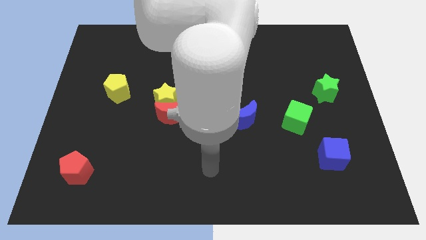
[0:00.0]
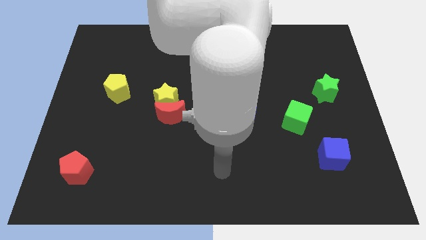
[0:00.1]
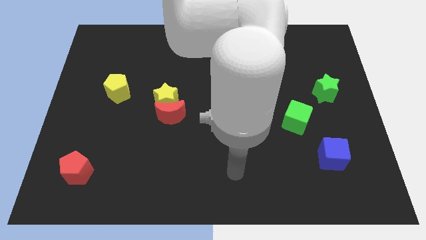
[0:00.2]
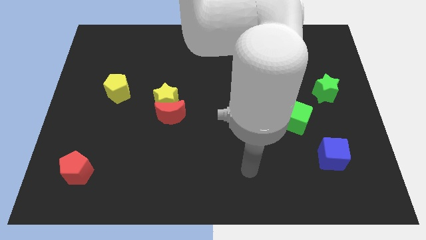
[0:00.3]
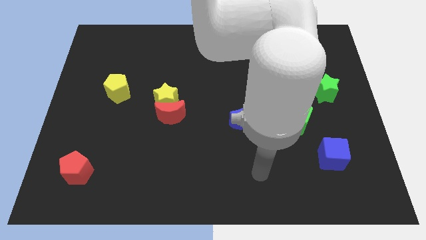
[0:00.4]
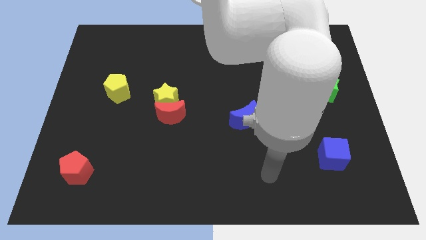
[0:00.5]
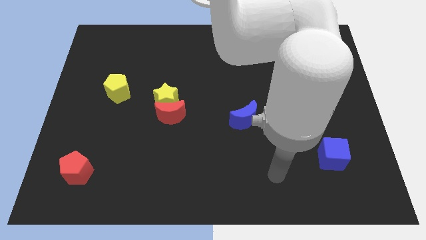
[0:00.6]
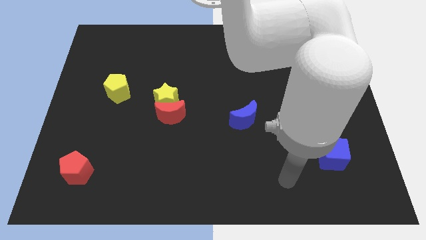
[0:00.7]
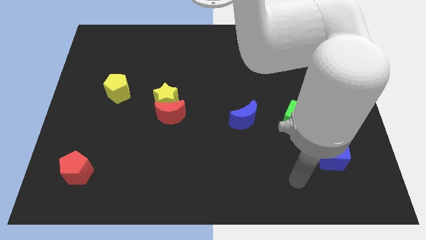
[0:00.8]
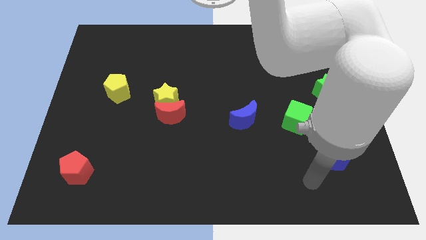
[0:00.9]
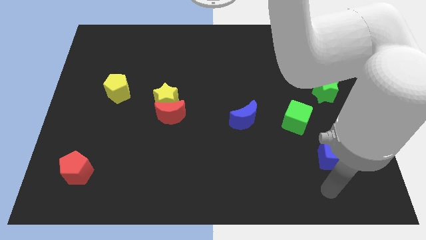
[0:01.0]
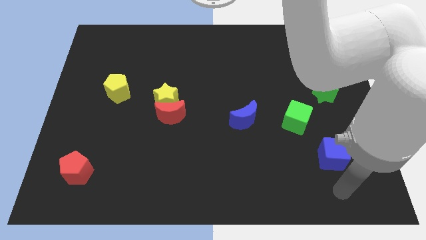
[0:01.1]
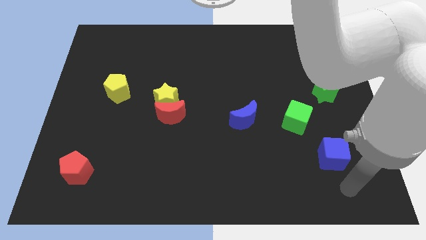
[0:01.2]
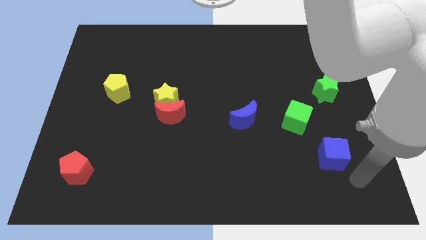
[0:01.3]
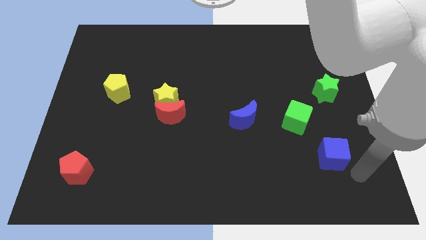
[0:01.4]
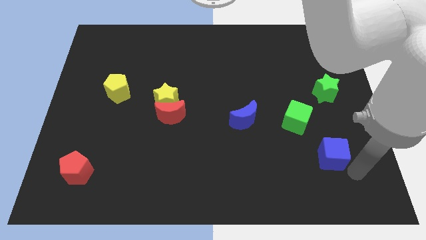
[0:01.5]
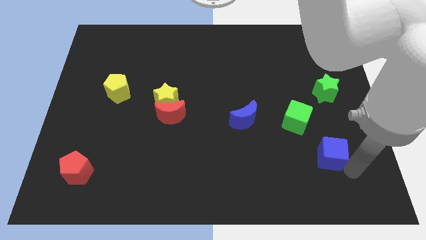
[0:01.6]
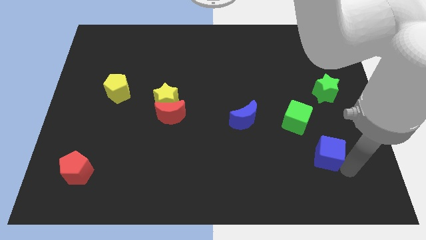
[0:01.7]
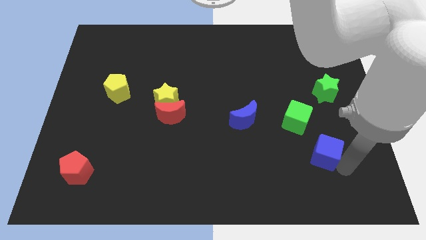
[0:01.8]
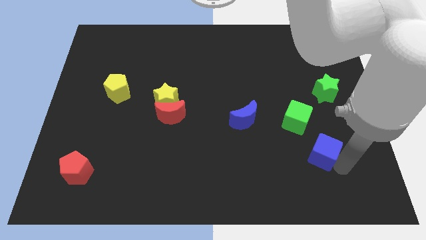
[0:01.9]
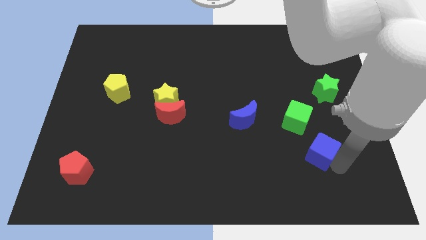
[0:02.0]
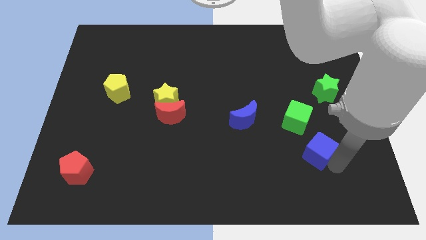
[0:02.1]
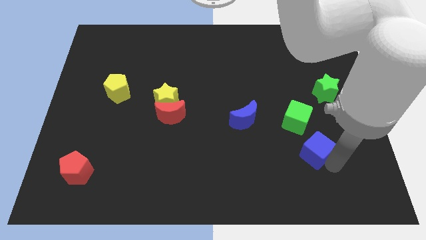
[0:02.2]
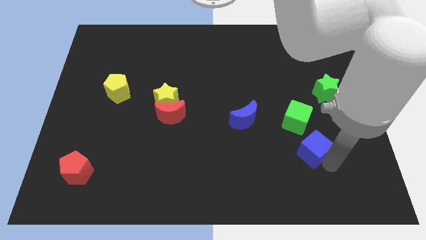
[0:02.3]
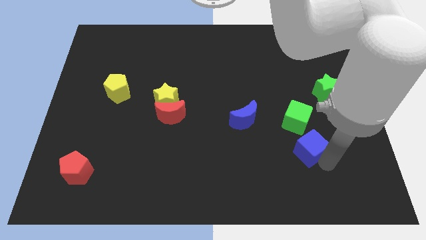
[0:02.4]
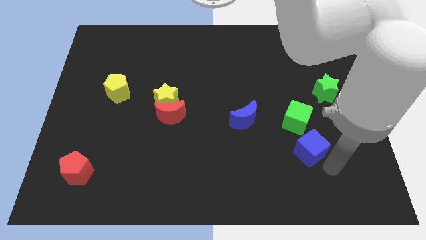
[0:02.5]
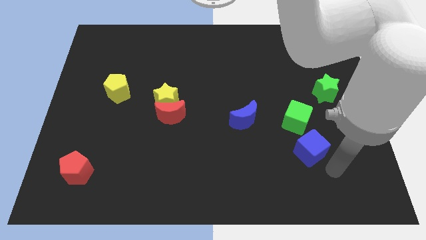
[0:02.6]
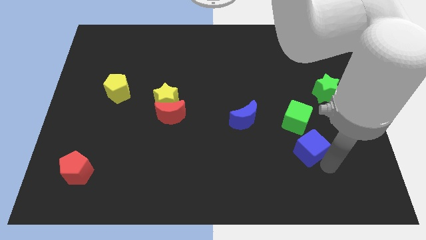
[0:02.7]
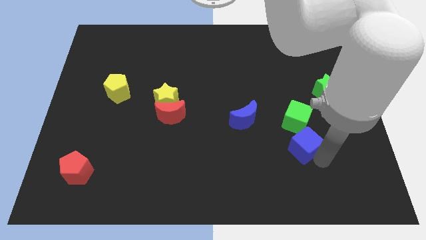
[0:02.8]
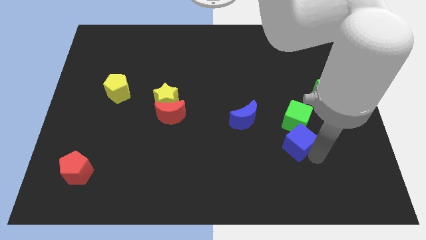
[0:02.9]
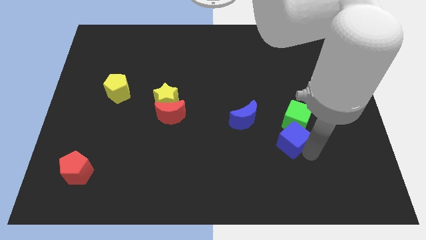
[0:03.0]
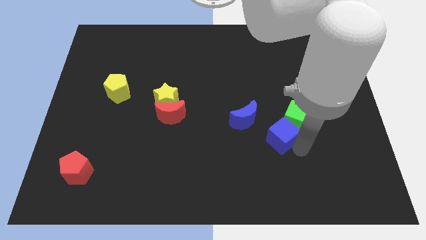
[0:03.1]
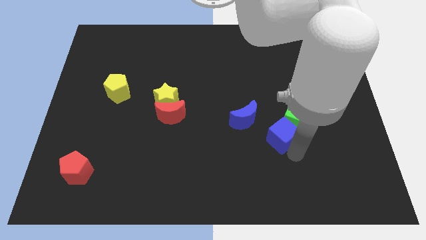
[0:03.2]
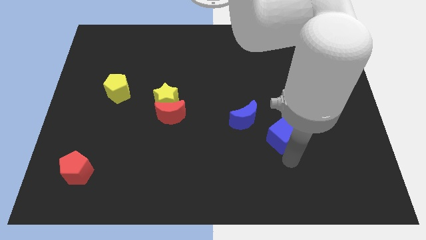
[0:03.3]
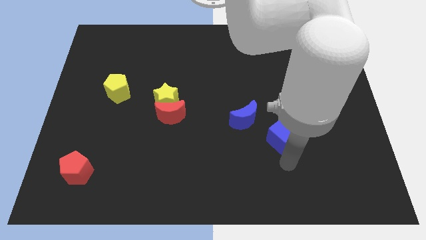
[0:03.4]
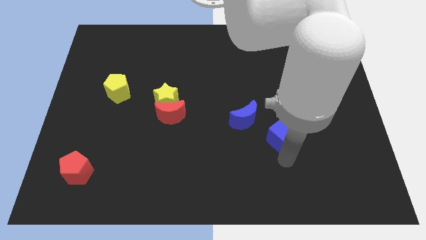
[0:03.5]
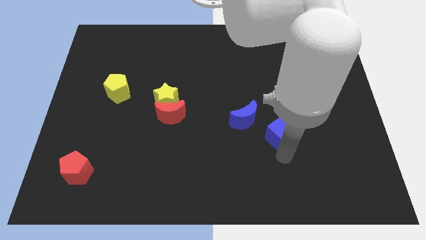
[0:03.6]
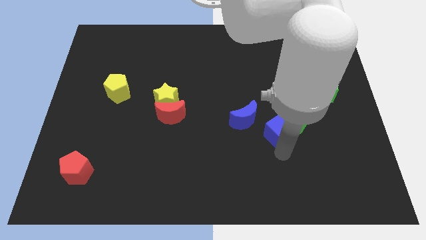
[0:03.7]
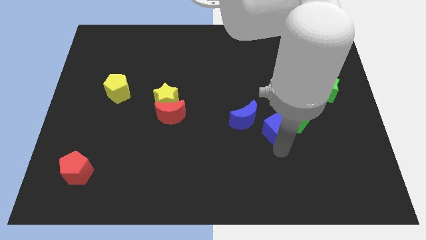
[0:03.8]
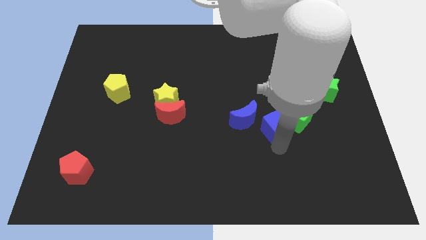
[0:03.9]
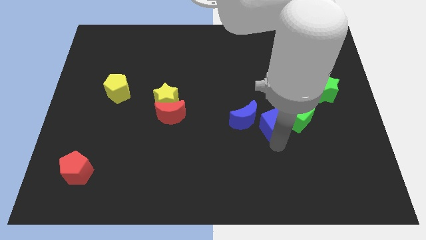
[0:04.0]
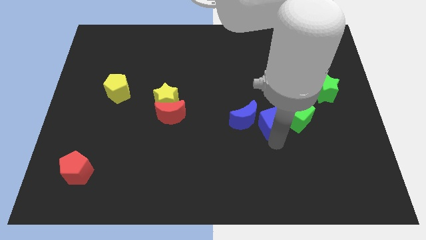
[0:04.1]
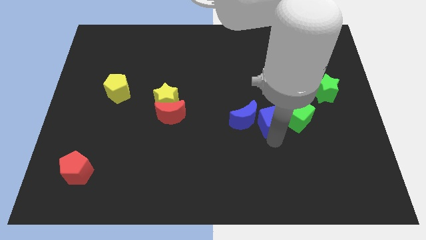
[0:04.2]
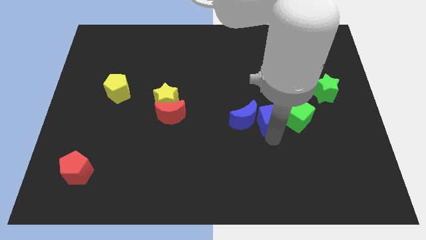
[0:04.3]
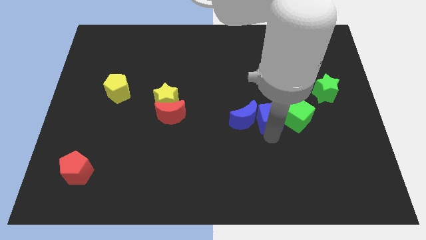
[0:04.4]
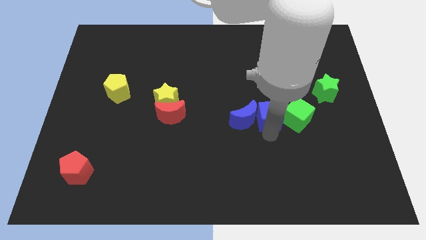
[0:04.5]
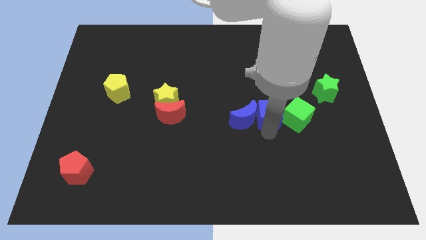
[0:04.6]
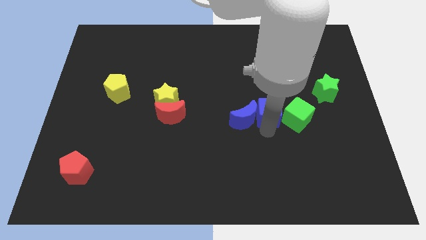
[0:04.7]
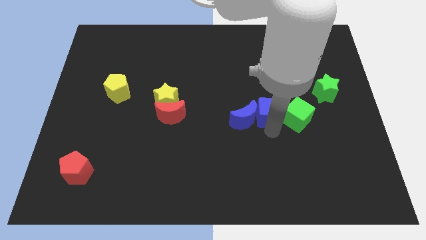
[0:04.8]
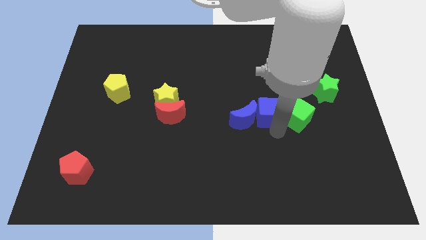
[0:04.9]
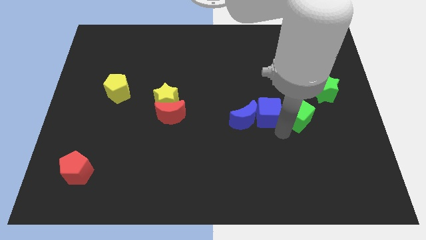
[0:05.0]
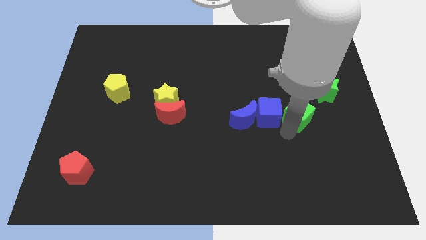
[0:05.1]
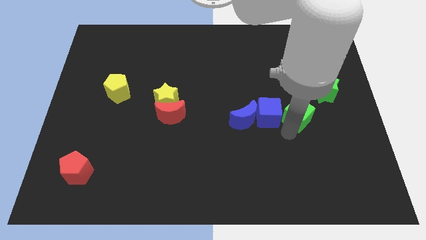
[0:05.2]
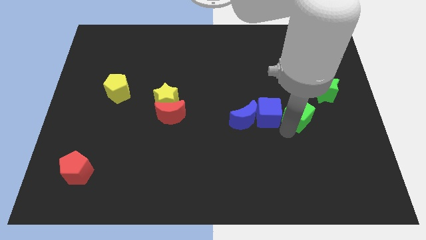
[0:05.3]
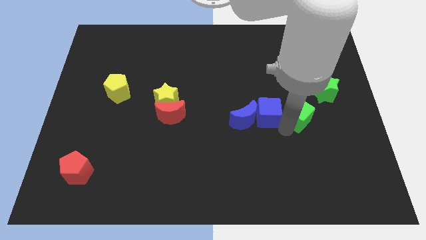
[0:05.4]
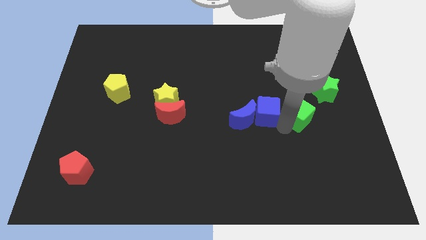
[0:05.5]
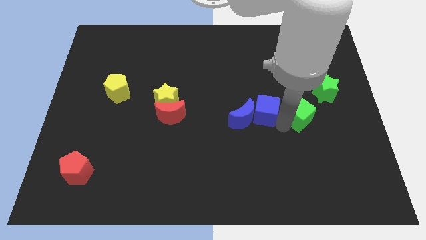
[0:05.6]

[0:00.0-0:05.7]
put the blue cube to the center
